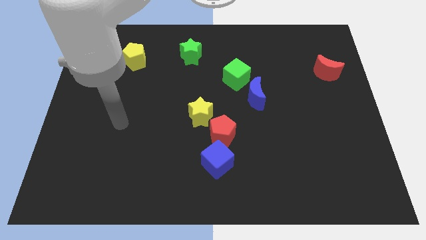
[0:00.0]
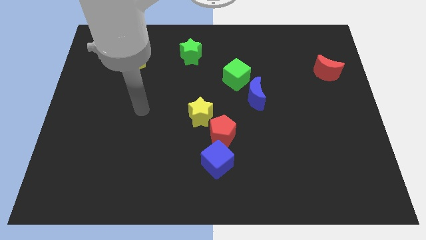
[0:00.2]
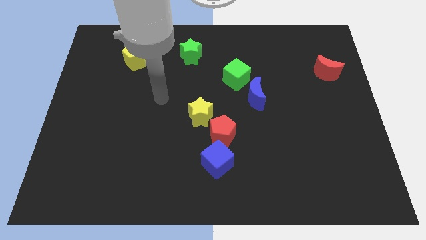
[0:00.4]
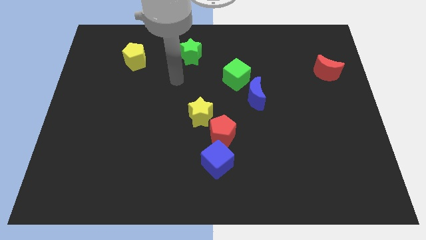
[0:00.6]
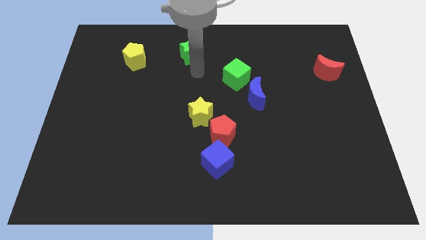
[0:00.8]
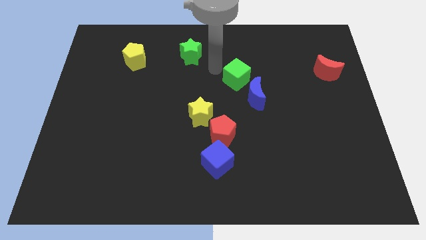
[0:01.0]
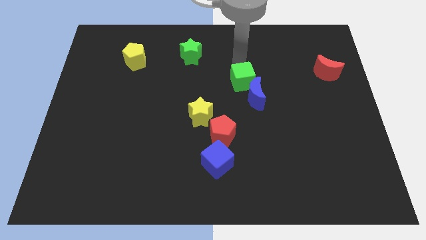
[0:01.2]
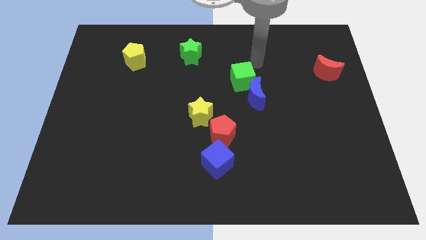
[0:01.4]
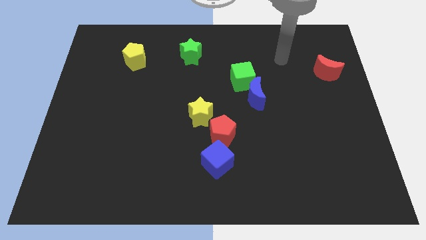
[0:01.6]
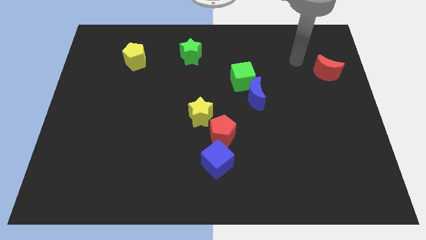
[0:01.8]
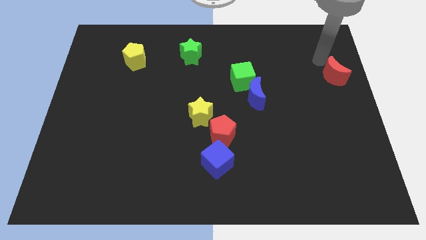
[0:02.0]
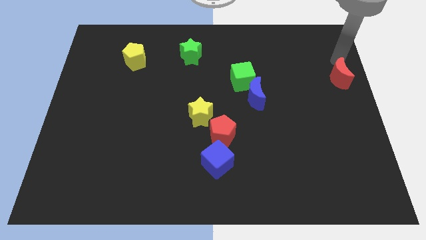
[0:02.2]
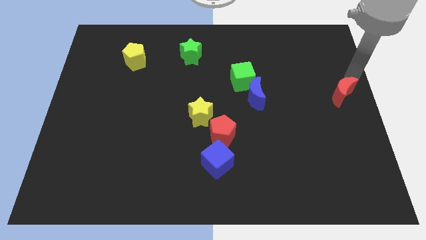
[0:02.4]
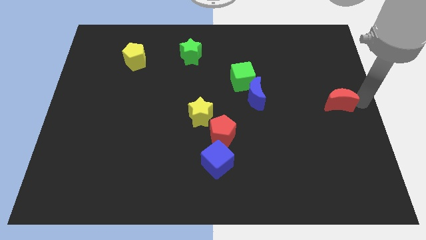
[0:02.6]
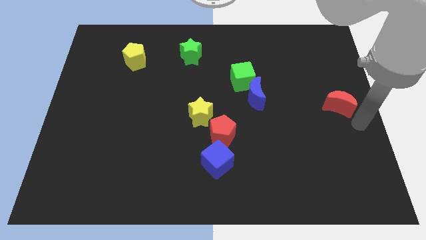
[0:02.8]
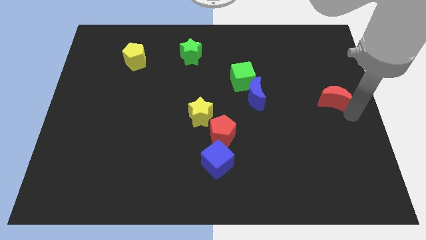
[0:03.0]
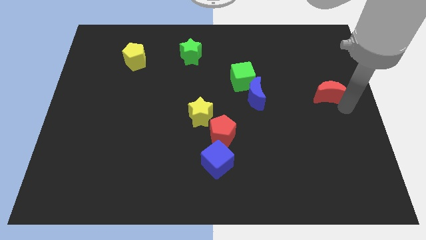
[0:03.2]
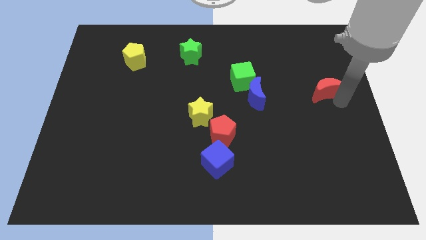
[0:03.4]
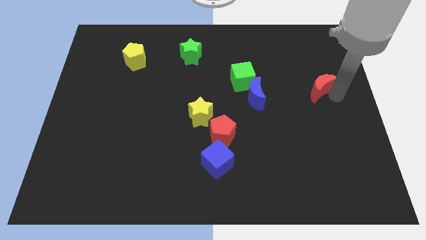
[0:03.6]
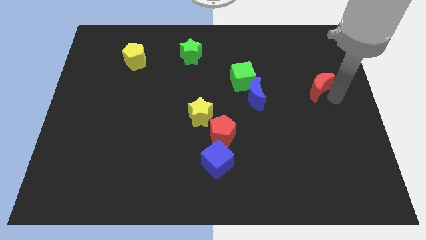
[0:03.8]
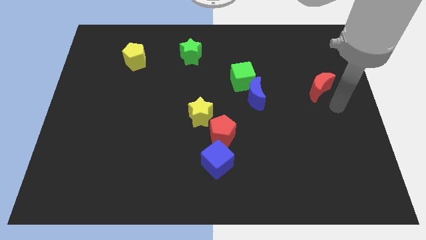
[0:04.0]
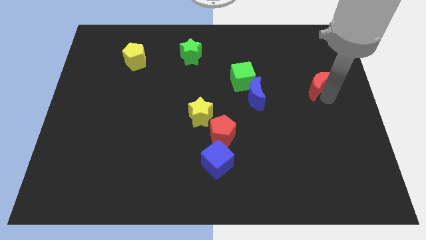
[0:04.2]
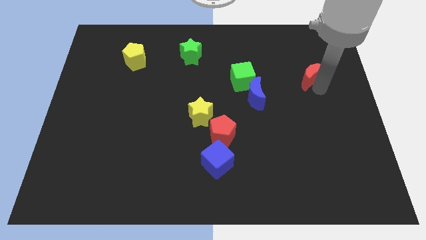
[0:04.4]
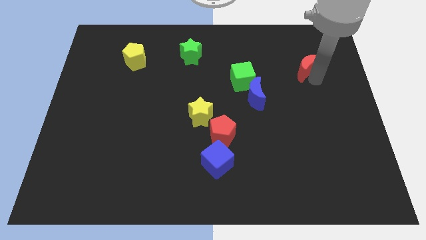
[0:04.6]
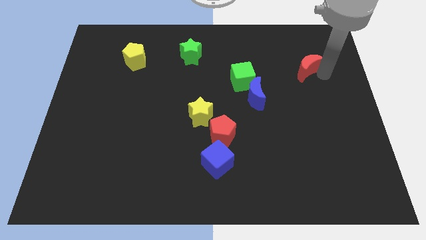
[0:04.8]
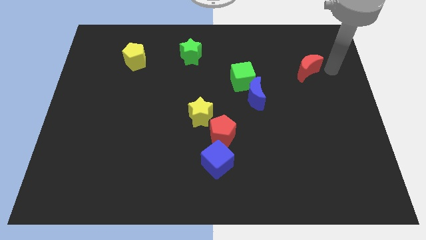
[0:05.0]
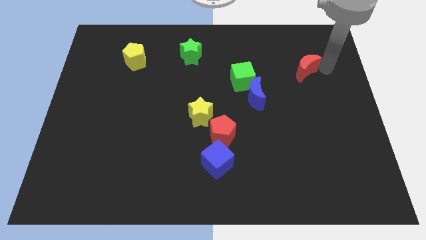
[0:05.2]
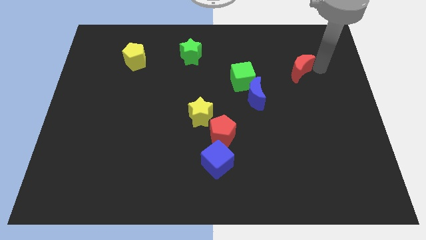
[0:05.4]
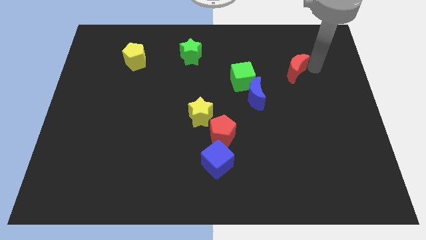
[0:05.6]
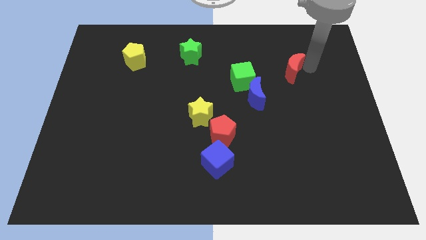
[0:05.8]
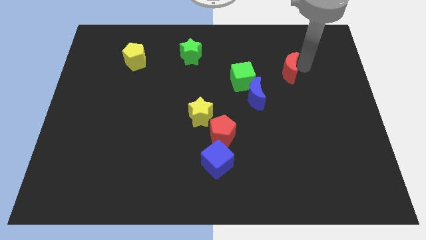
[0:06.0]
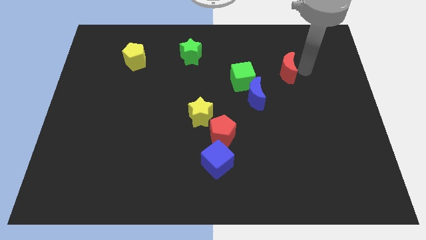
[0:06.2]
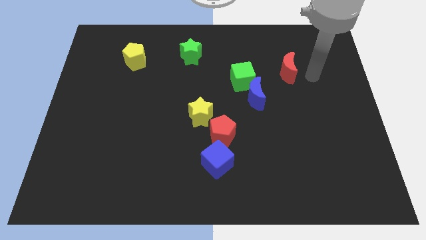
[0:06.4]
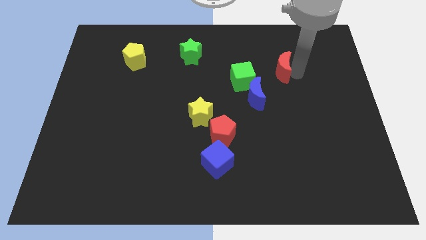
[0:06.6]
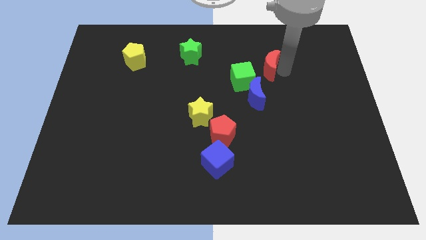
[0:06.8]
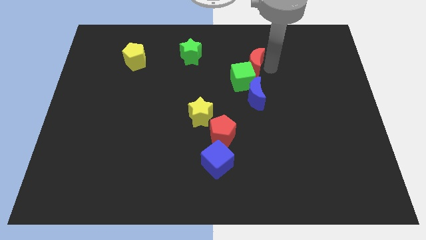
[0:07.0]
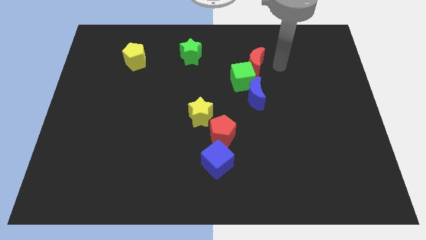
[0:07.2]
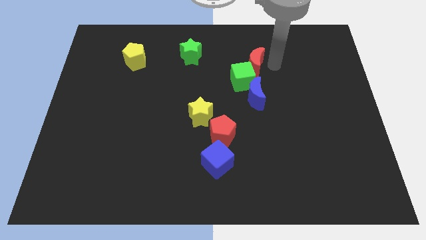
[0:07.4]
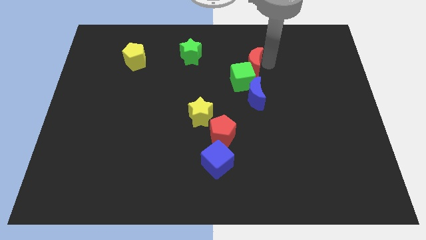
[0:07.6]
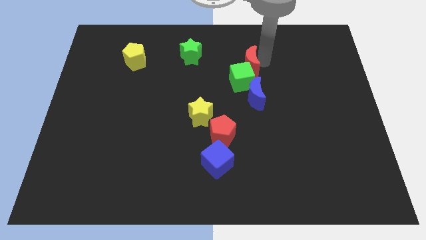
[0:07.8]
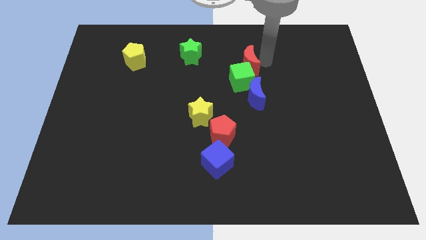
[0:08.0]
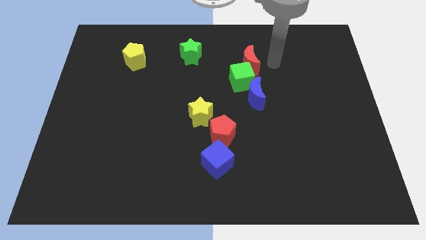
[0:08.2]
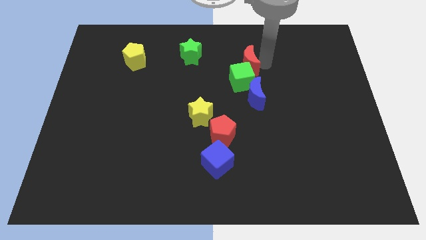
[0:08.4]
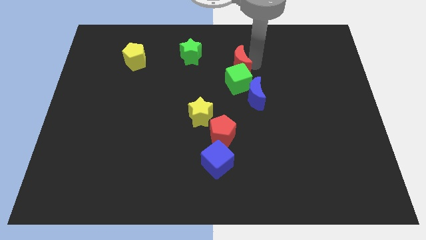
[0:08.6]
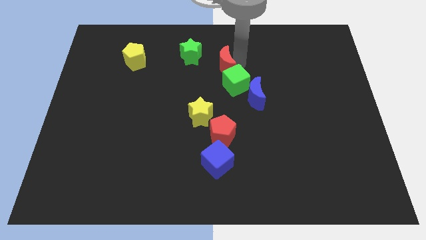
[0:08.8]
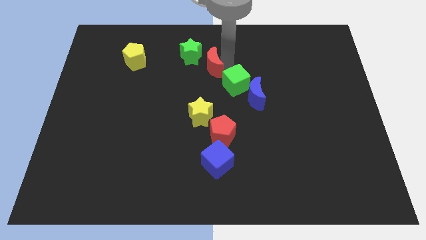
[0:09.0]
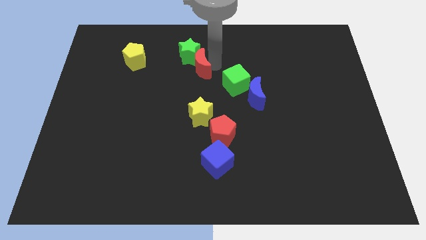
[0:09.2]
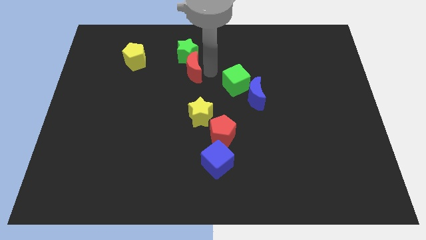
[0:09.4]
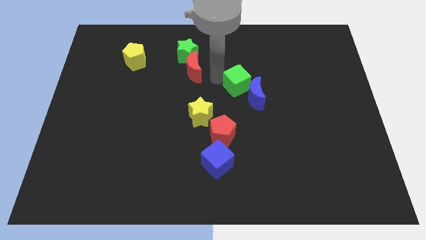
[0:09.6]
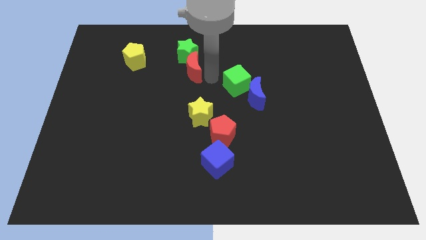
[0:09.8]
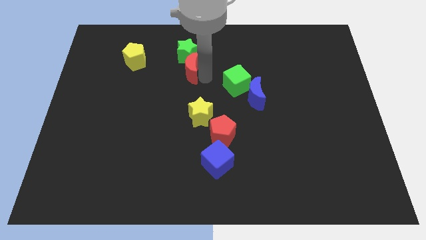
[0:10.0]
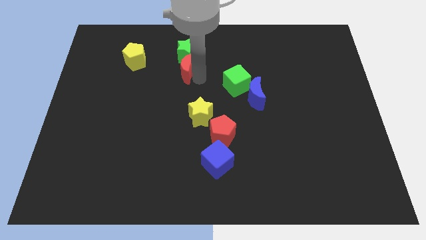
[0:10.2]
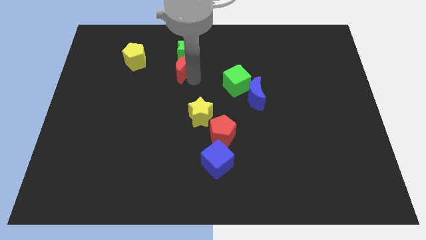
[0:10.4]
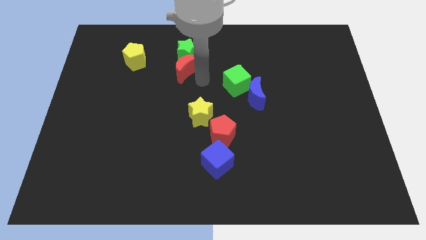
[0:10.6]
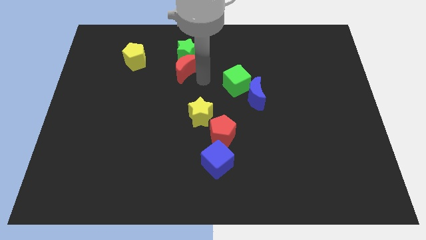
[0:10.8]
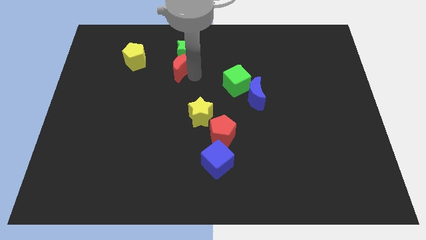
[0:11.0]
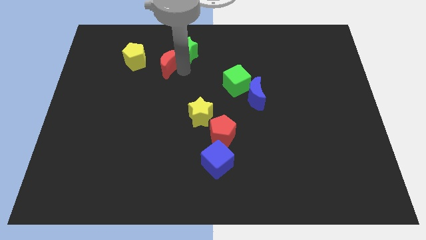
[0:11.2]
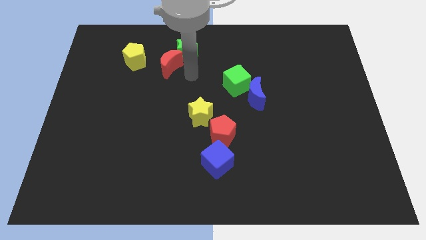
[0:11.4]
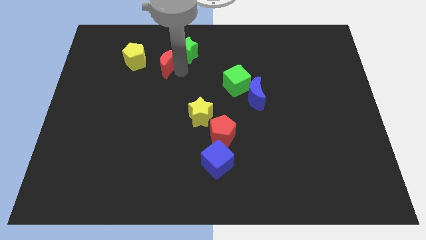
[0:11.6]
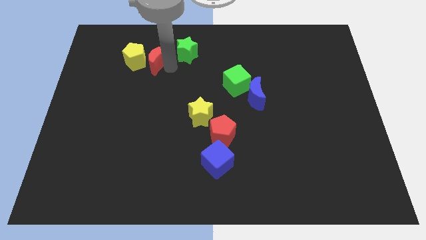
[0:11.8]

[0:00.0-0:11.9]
put the red moon next to the yellow pentagon
